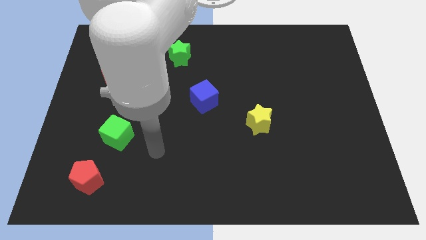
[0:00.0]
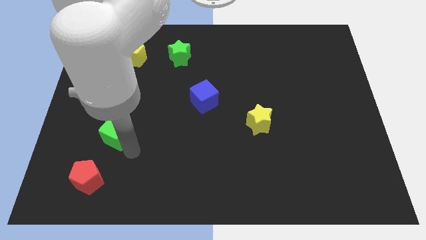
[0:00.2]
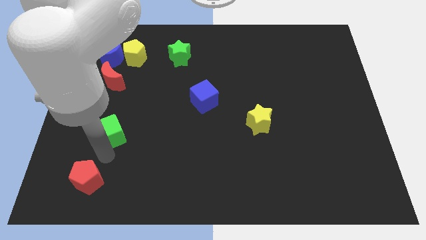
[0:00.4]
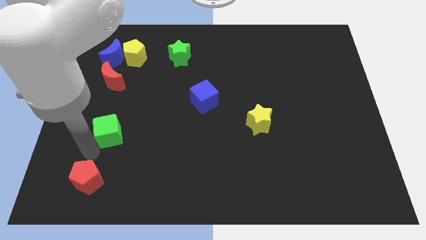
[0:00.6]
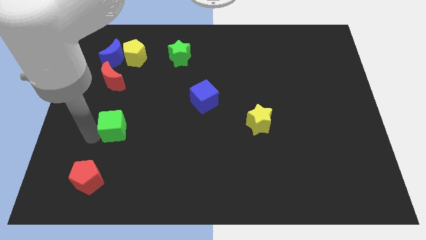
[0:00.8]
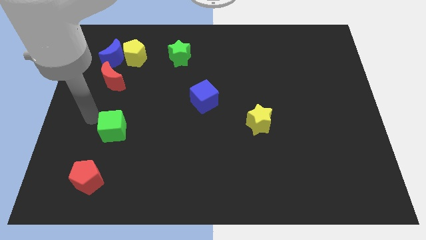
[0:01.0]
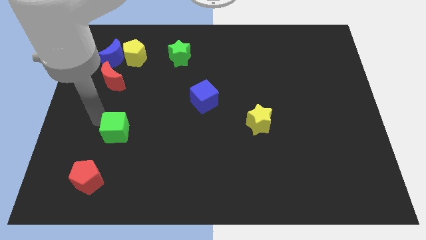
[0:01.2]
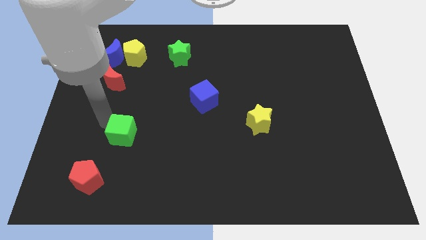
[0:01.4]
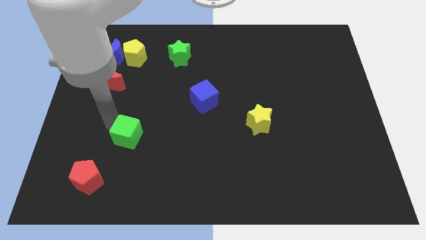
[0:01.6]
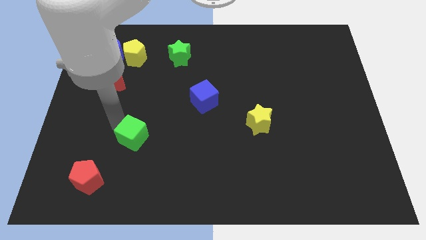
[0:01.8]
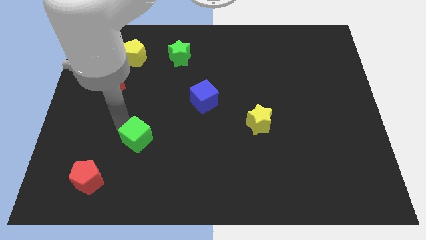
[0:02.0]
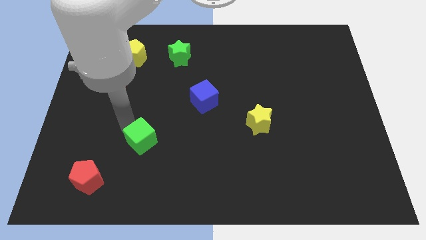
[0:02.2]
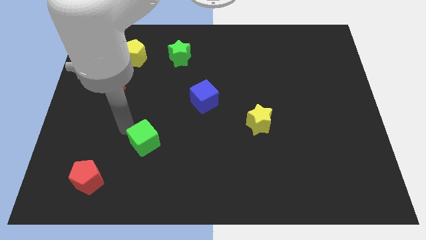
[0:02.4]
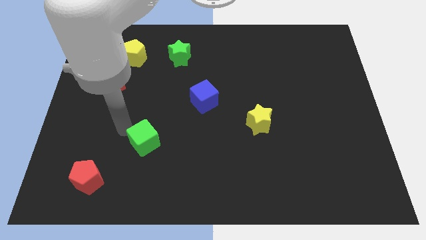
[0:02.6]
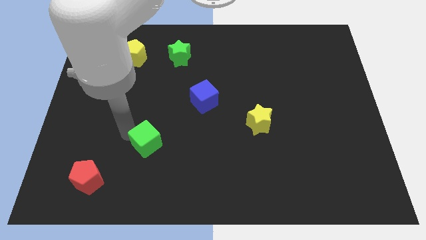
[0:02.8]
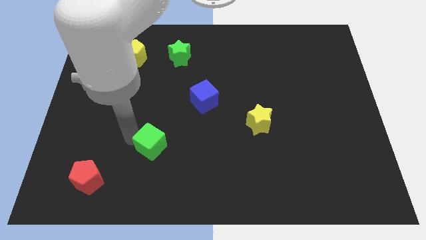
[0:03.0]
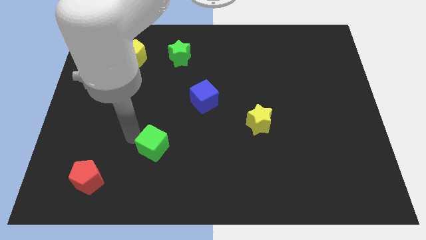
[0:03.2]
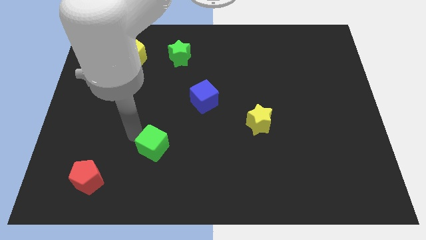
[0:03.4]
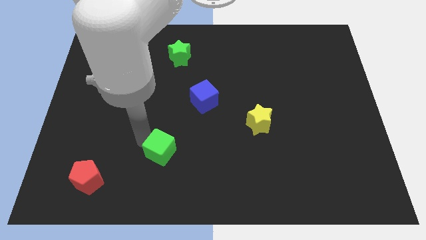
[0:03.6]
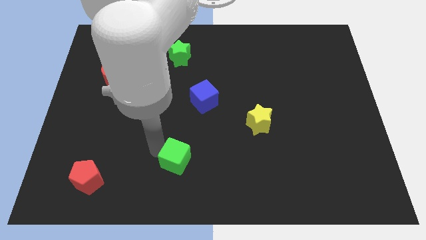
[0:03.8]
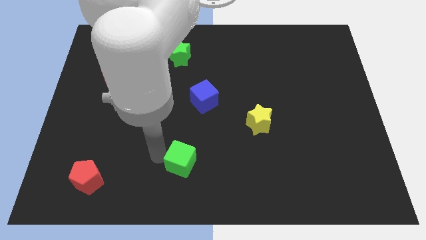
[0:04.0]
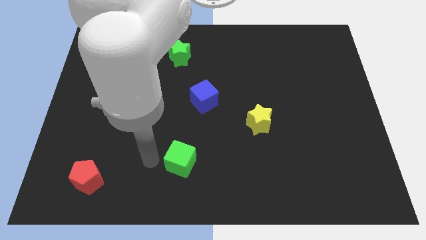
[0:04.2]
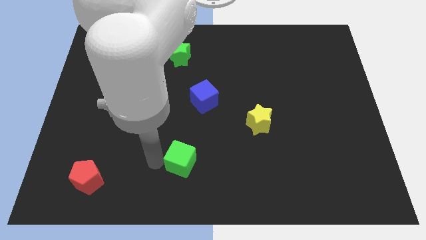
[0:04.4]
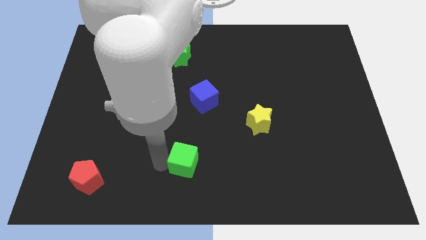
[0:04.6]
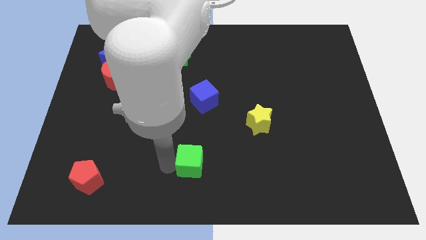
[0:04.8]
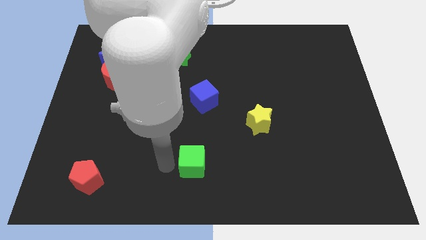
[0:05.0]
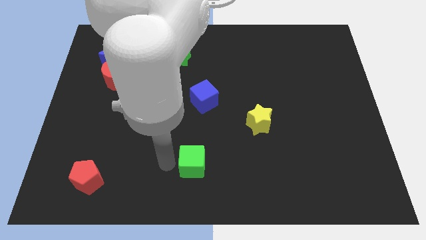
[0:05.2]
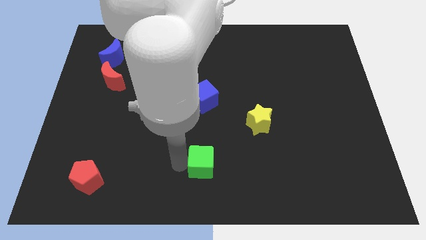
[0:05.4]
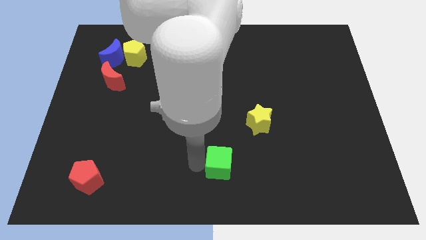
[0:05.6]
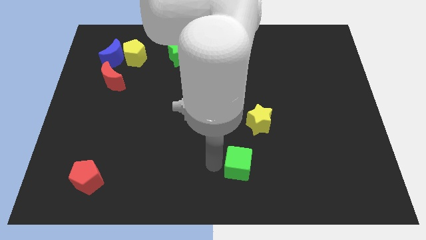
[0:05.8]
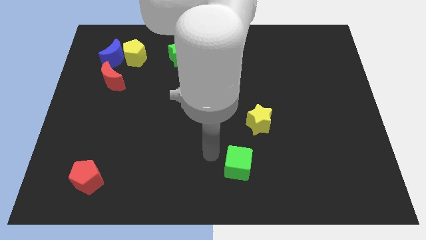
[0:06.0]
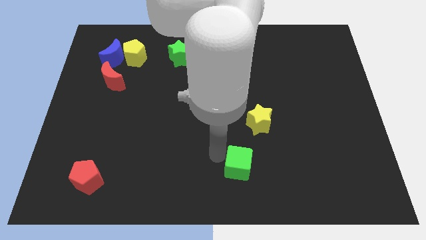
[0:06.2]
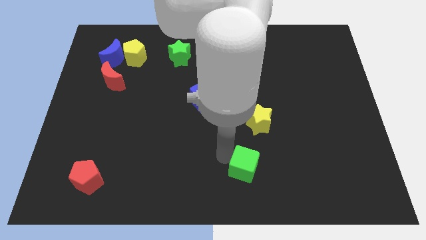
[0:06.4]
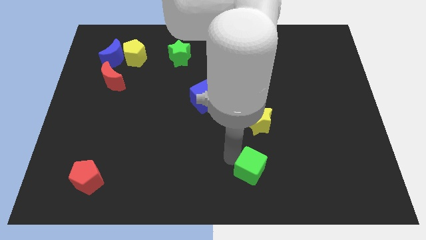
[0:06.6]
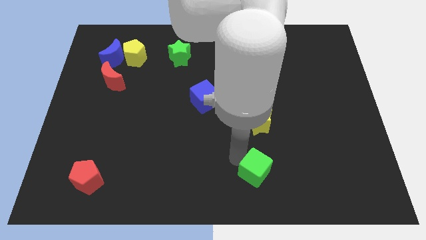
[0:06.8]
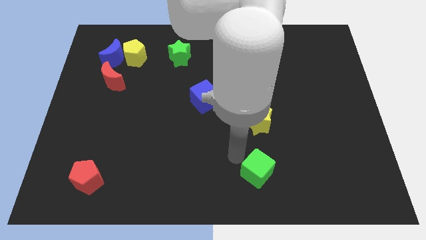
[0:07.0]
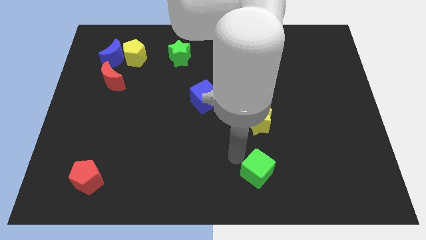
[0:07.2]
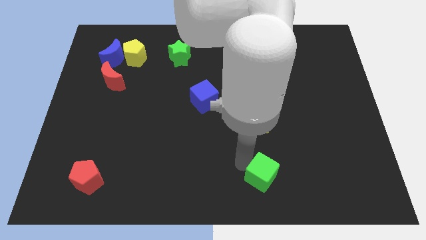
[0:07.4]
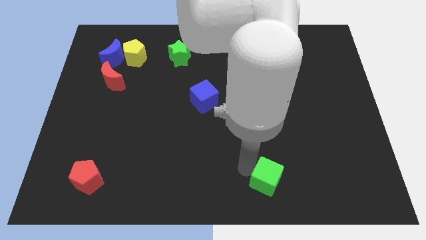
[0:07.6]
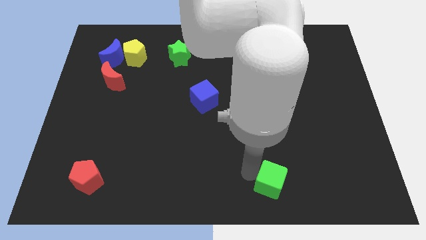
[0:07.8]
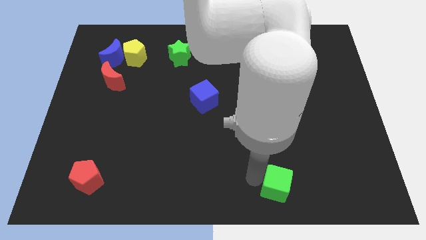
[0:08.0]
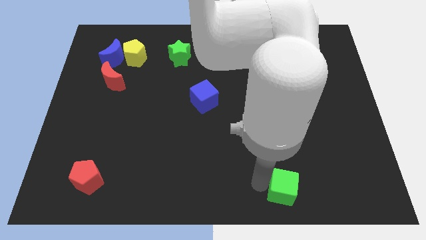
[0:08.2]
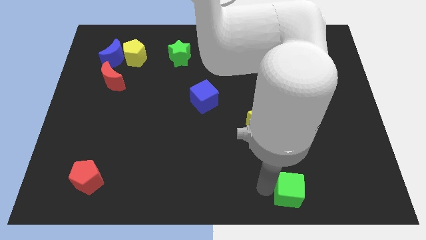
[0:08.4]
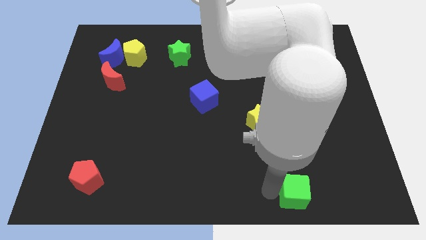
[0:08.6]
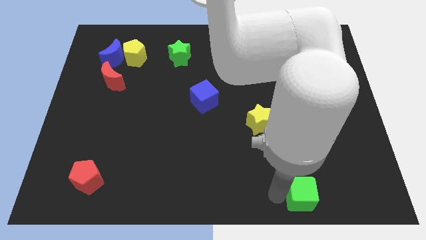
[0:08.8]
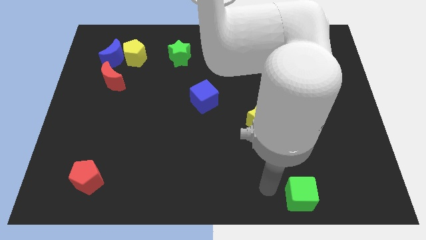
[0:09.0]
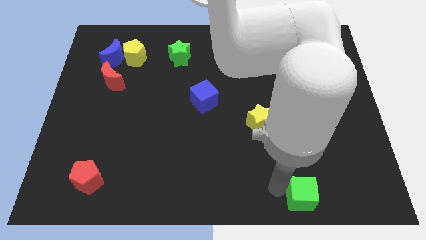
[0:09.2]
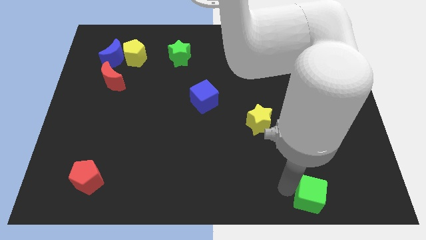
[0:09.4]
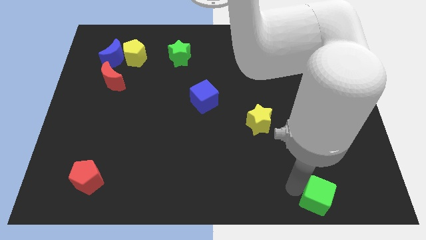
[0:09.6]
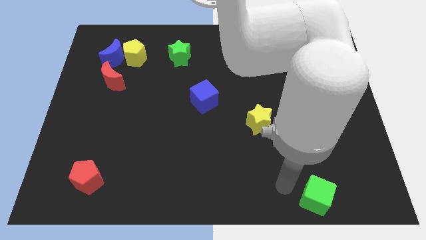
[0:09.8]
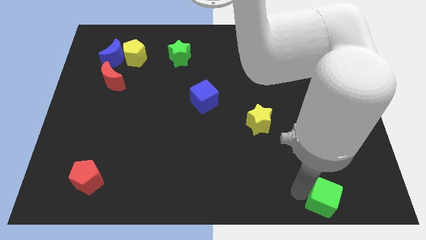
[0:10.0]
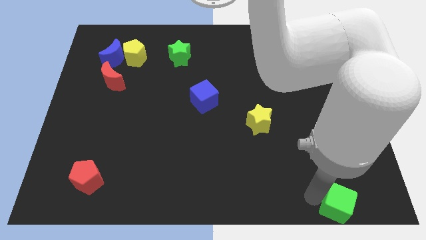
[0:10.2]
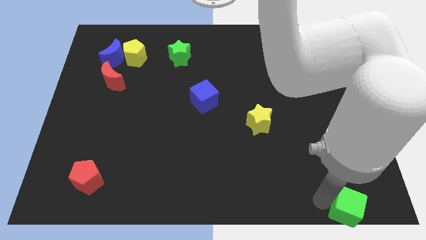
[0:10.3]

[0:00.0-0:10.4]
slide the green cube to the bottom right corner

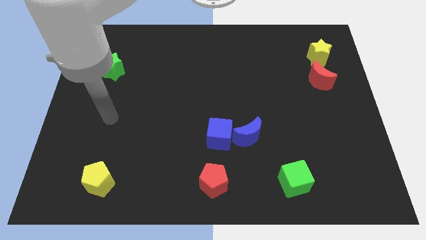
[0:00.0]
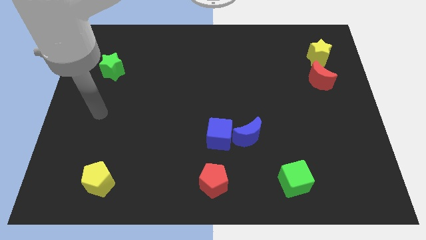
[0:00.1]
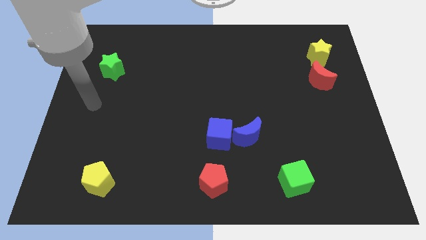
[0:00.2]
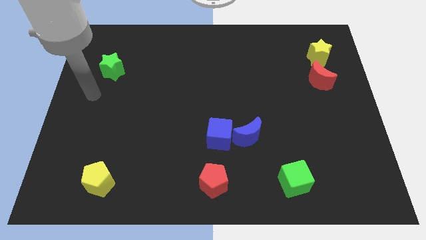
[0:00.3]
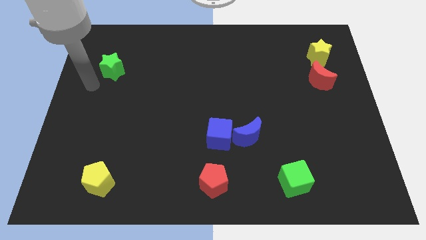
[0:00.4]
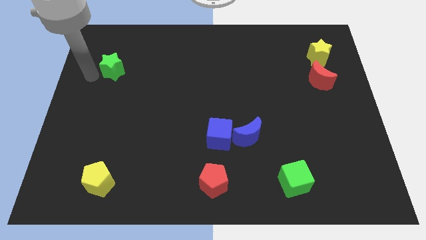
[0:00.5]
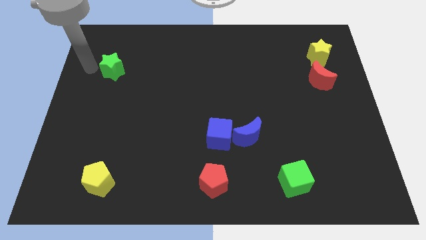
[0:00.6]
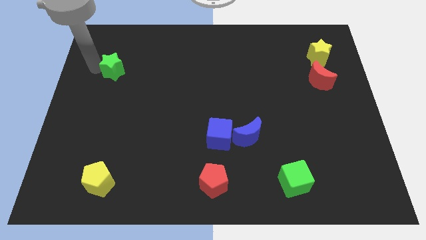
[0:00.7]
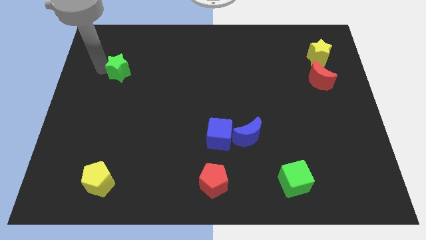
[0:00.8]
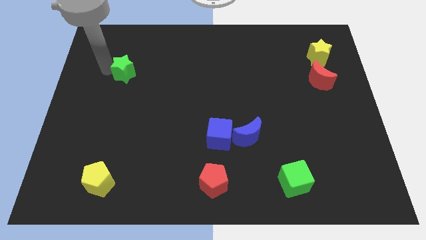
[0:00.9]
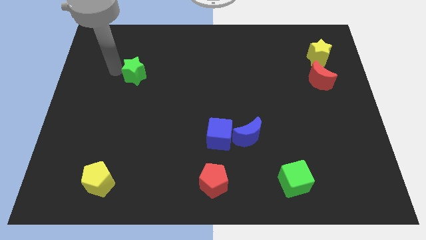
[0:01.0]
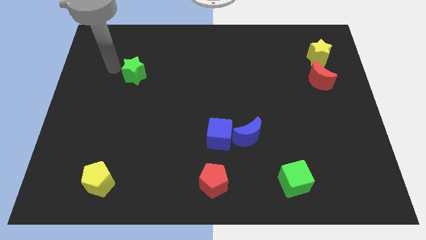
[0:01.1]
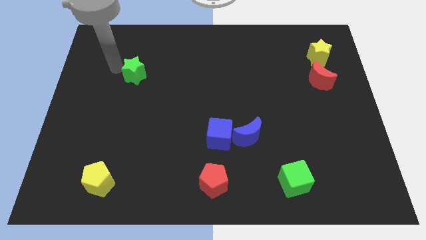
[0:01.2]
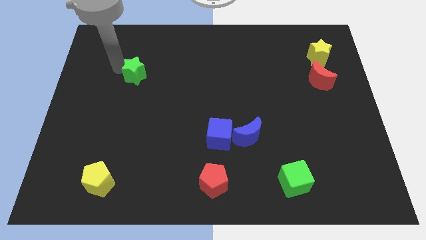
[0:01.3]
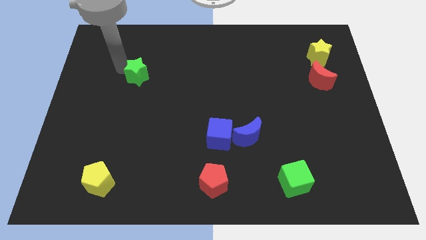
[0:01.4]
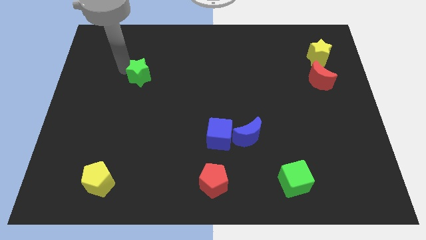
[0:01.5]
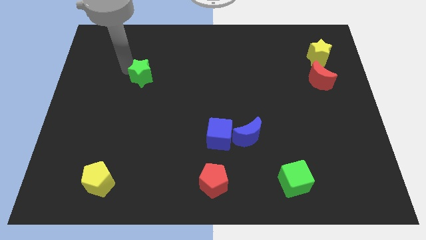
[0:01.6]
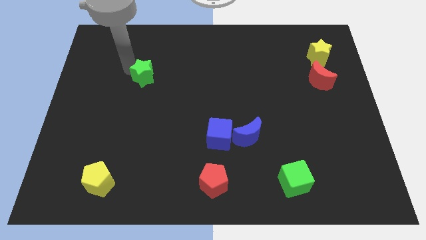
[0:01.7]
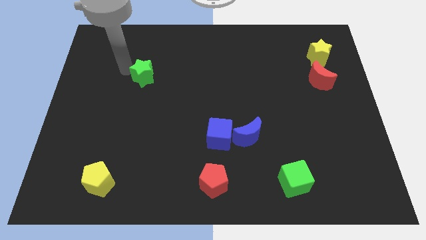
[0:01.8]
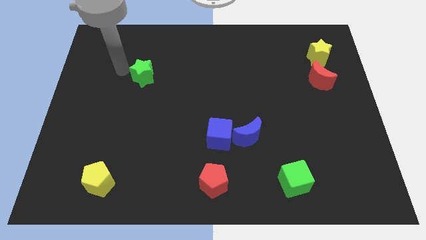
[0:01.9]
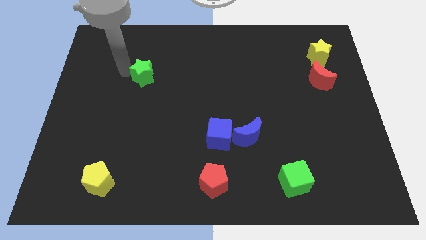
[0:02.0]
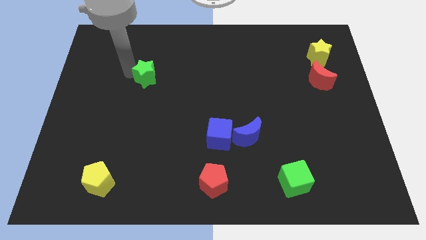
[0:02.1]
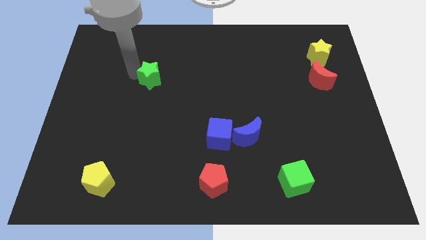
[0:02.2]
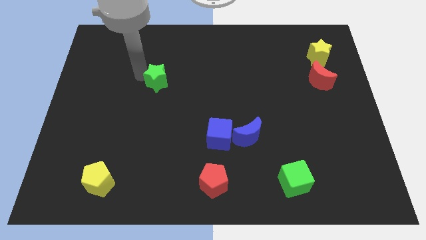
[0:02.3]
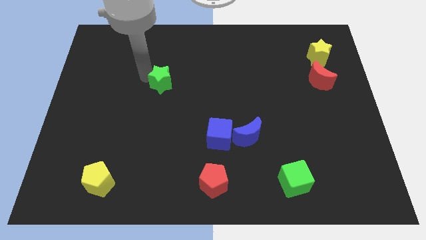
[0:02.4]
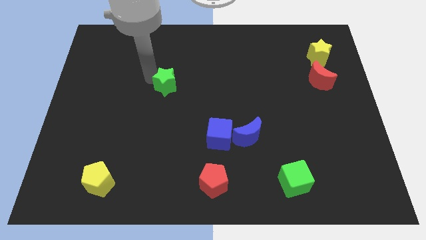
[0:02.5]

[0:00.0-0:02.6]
push the green star to the middle
